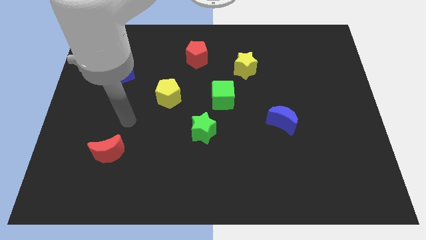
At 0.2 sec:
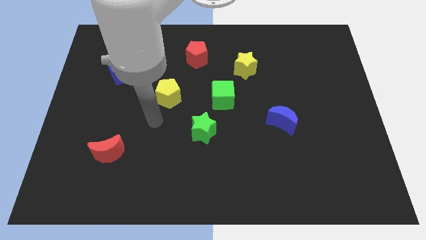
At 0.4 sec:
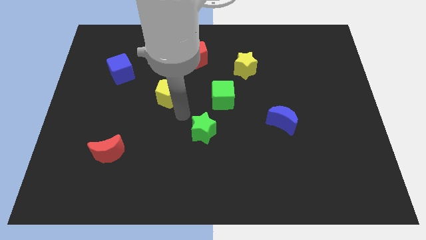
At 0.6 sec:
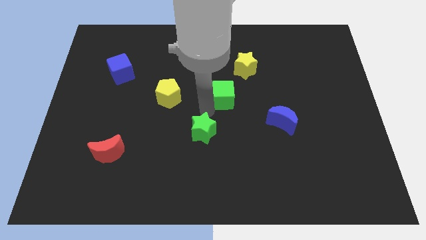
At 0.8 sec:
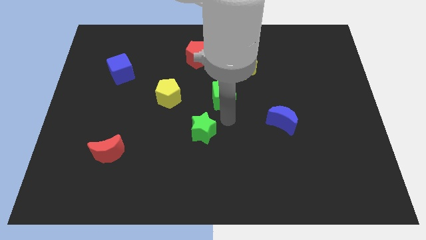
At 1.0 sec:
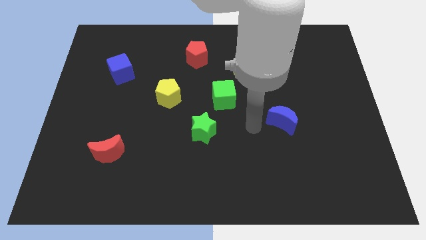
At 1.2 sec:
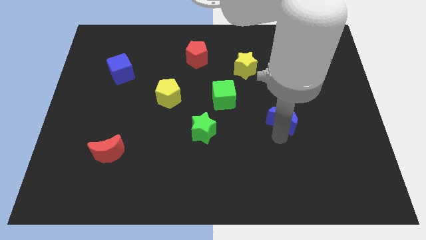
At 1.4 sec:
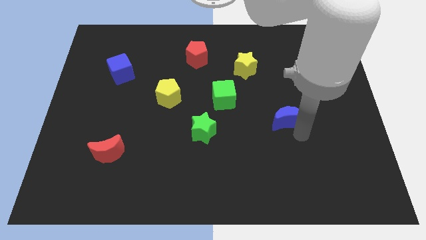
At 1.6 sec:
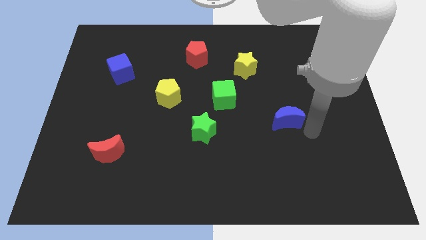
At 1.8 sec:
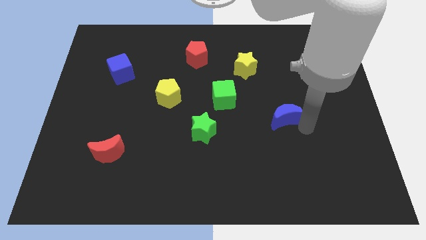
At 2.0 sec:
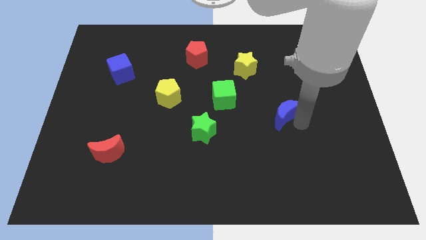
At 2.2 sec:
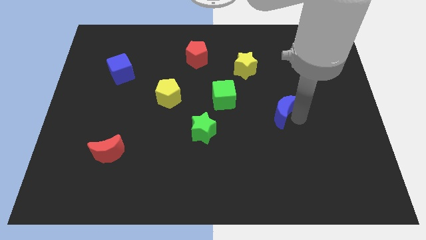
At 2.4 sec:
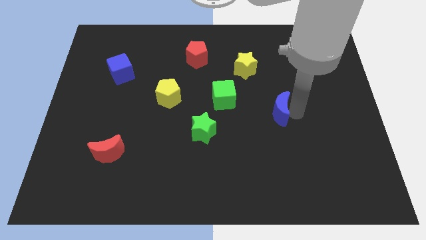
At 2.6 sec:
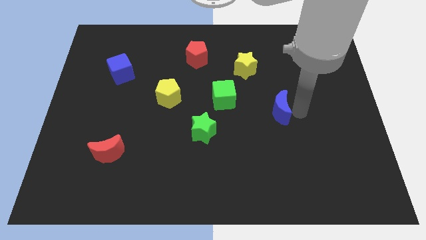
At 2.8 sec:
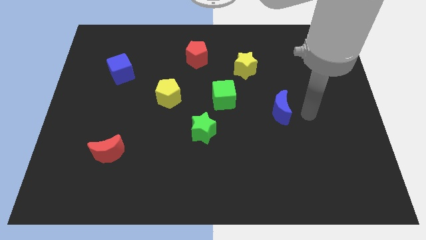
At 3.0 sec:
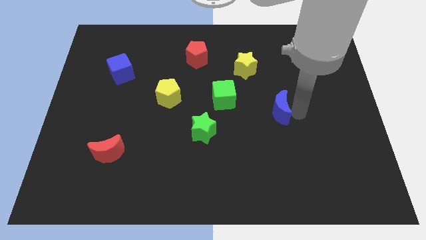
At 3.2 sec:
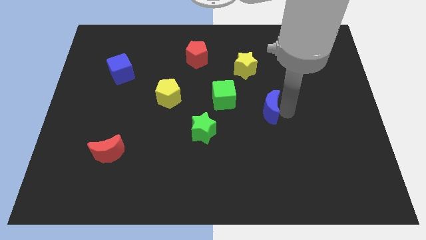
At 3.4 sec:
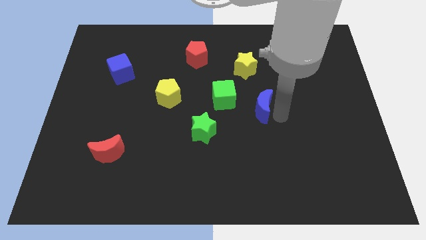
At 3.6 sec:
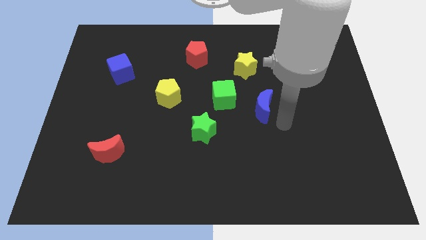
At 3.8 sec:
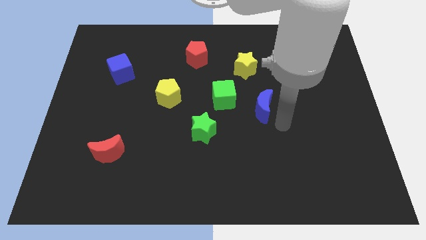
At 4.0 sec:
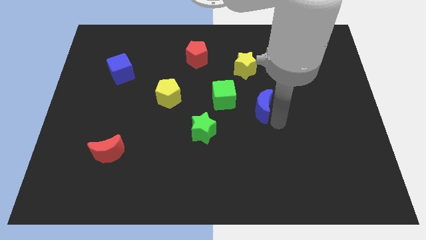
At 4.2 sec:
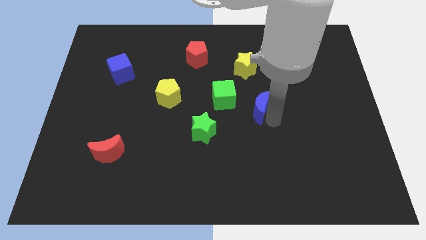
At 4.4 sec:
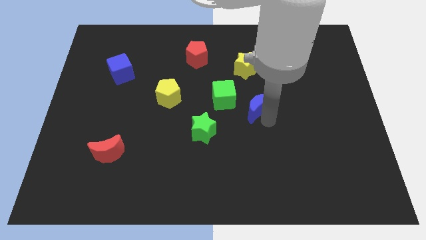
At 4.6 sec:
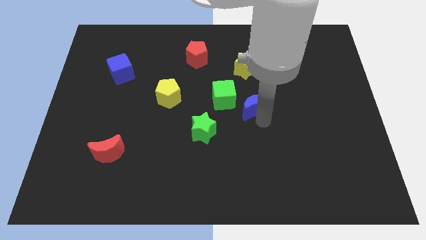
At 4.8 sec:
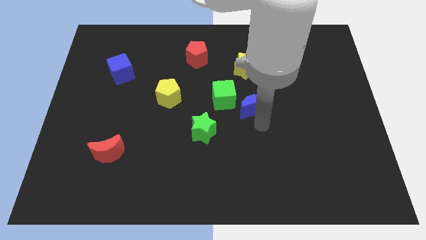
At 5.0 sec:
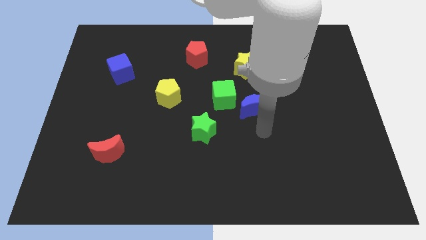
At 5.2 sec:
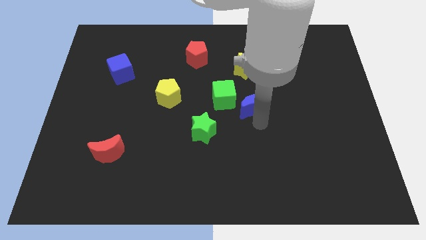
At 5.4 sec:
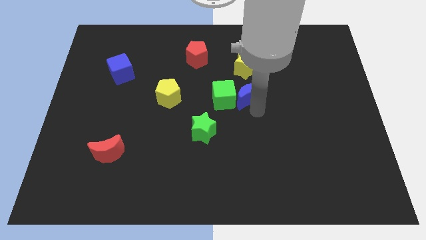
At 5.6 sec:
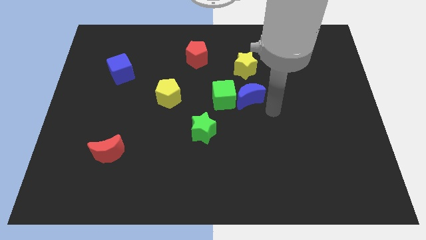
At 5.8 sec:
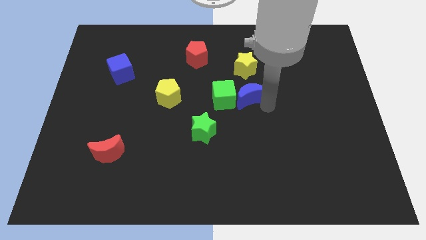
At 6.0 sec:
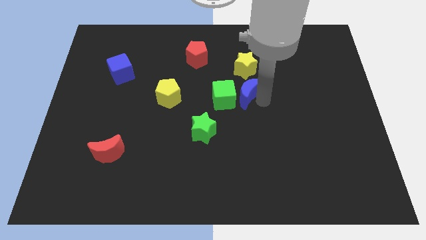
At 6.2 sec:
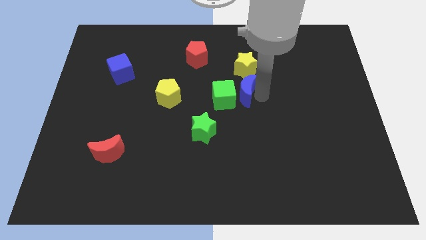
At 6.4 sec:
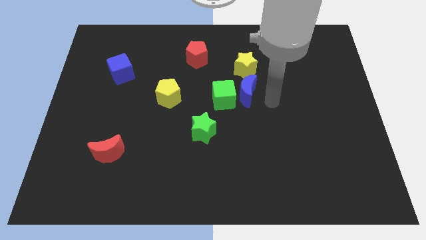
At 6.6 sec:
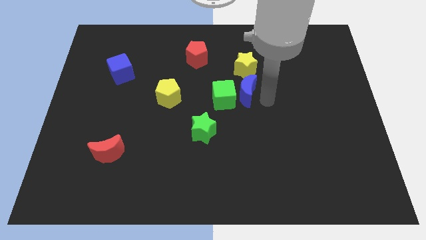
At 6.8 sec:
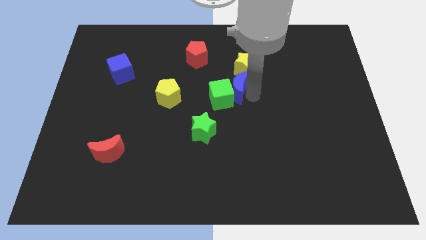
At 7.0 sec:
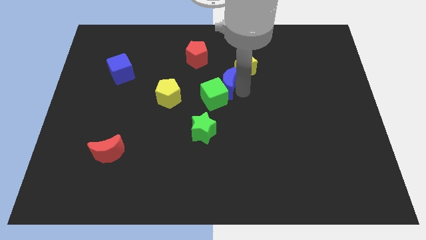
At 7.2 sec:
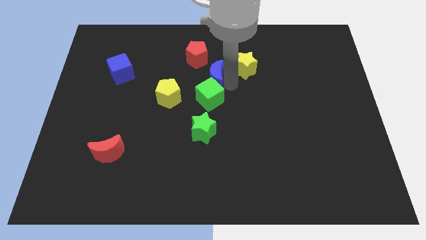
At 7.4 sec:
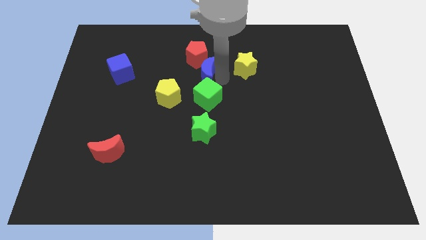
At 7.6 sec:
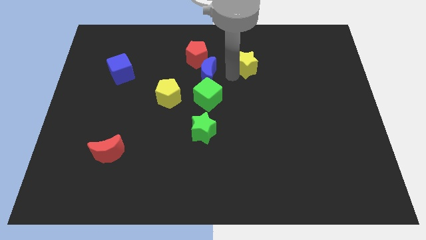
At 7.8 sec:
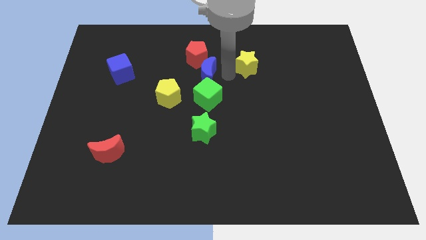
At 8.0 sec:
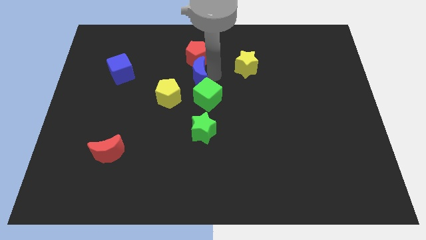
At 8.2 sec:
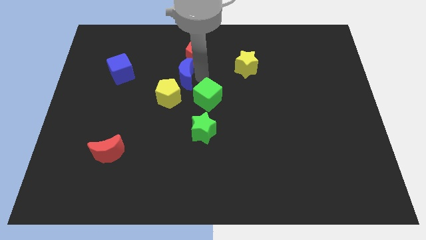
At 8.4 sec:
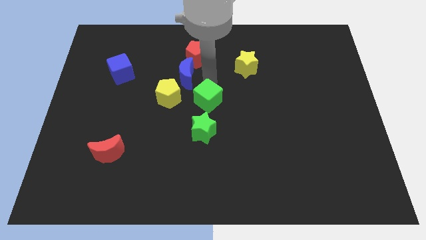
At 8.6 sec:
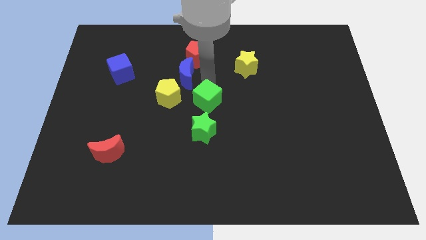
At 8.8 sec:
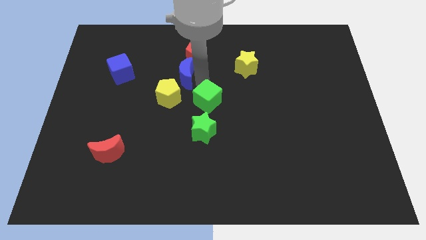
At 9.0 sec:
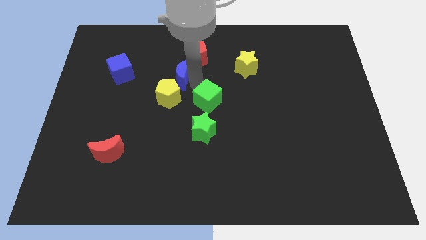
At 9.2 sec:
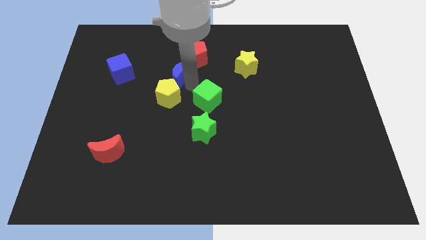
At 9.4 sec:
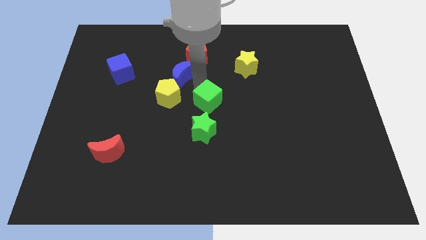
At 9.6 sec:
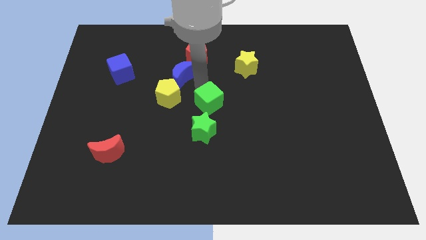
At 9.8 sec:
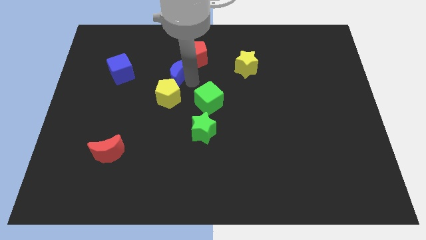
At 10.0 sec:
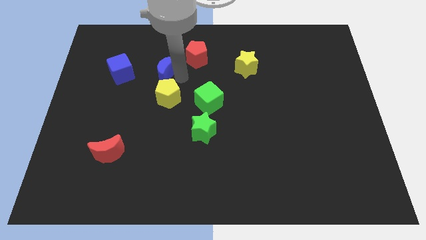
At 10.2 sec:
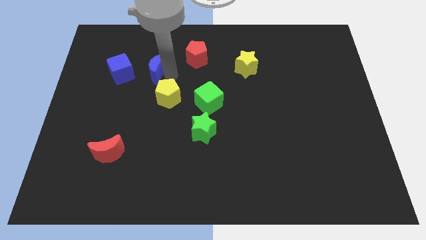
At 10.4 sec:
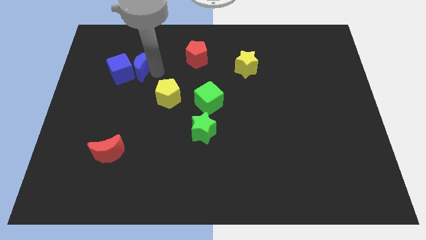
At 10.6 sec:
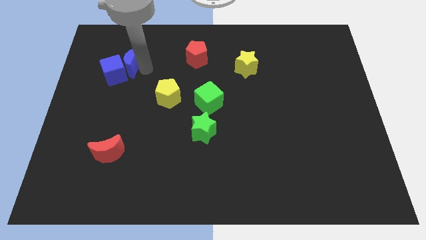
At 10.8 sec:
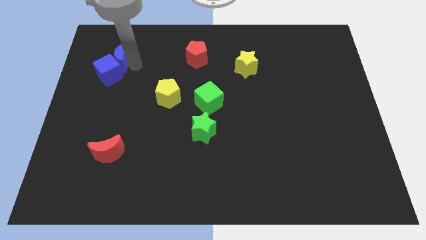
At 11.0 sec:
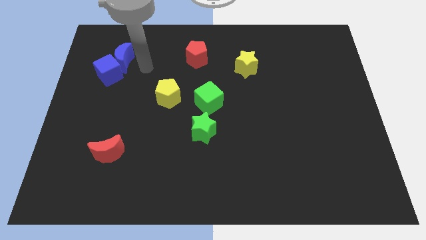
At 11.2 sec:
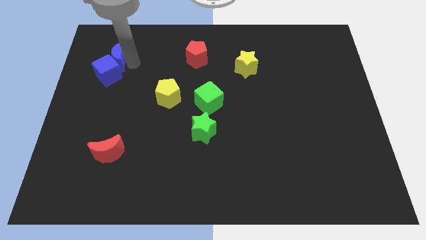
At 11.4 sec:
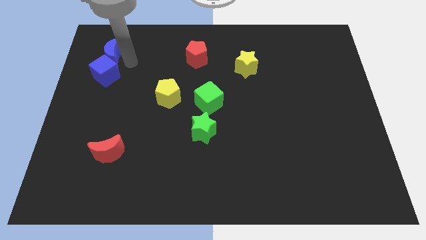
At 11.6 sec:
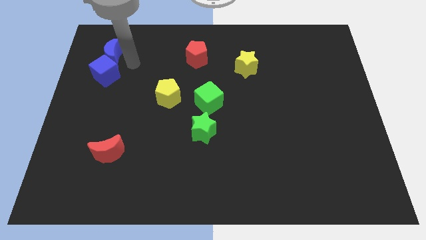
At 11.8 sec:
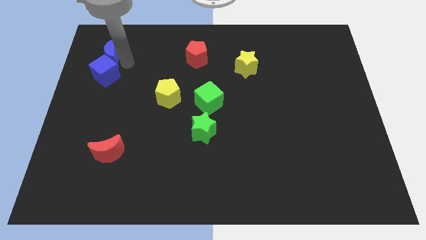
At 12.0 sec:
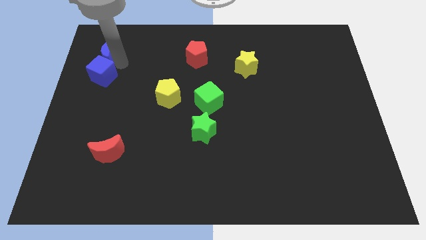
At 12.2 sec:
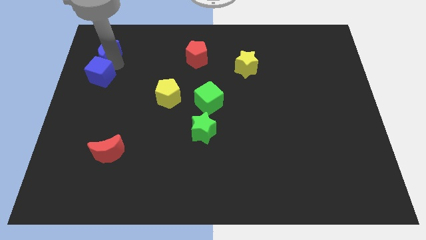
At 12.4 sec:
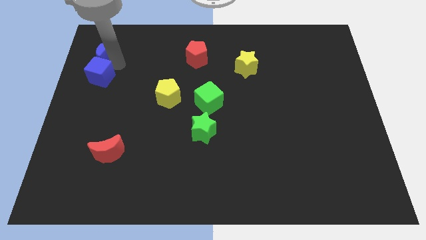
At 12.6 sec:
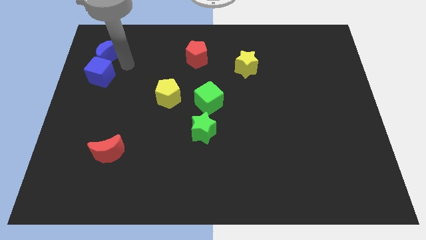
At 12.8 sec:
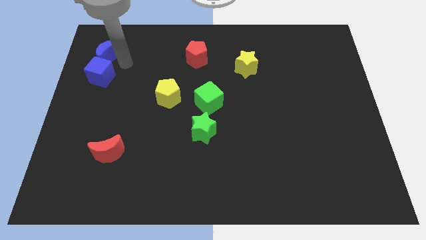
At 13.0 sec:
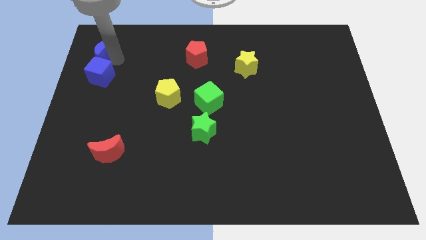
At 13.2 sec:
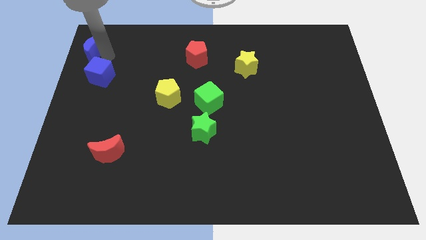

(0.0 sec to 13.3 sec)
slide the blue moon to the top left
